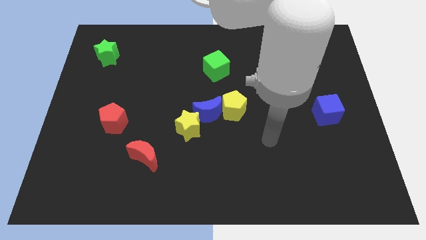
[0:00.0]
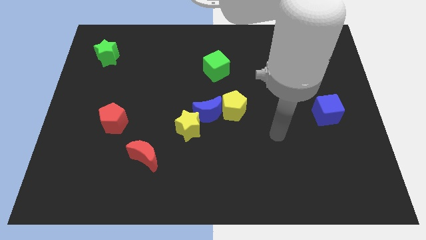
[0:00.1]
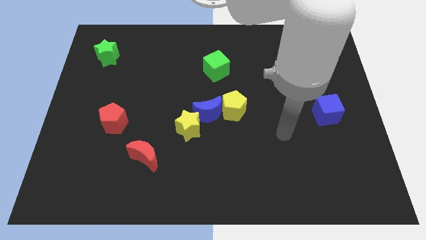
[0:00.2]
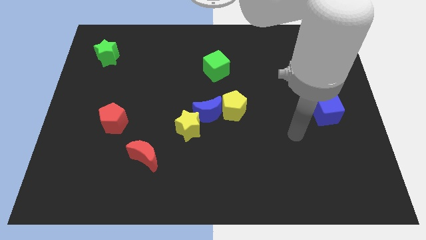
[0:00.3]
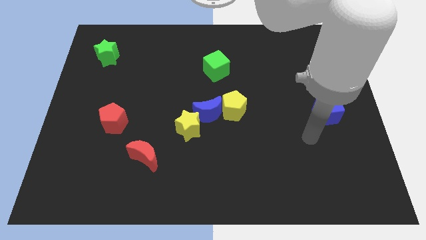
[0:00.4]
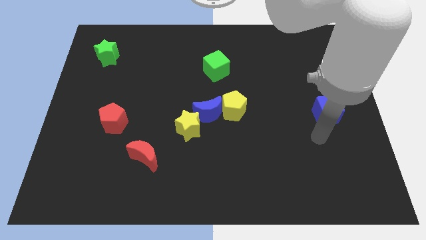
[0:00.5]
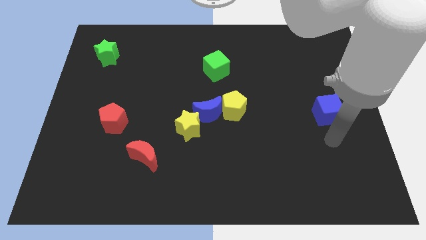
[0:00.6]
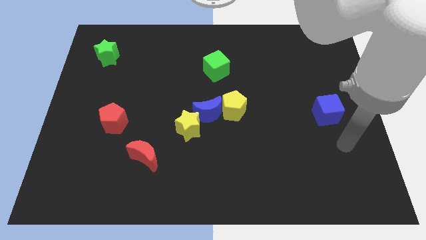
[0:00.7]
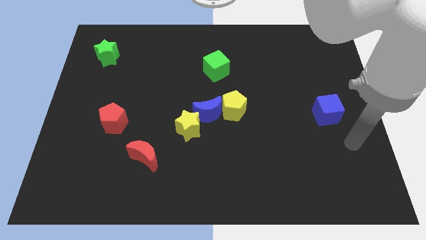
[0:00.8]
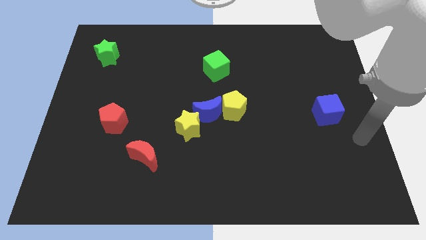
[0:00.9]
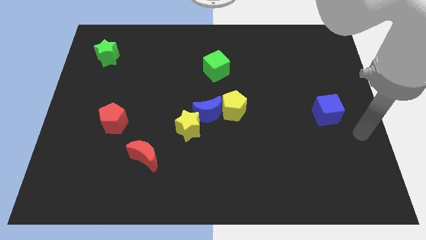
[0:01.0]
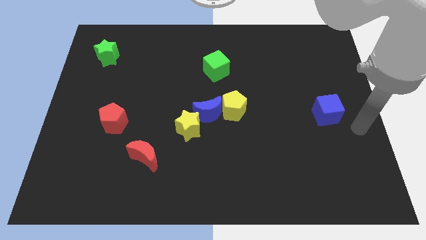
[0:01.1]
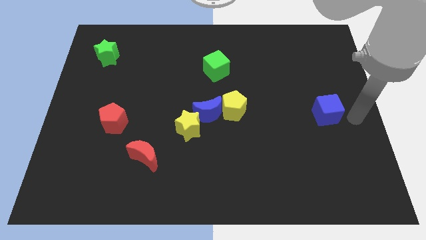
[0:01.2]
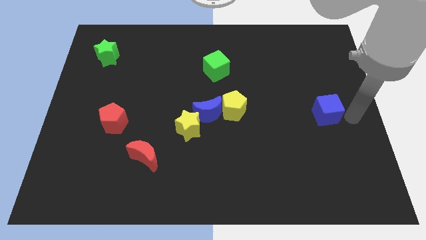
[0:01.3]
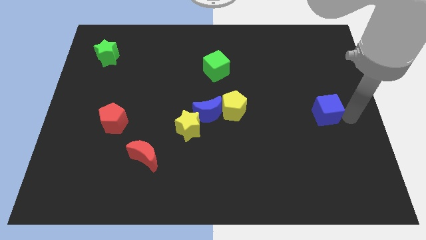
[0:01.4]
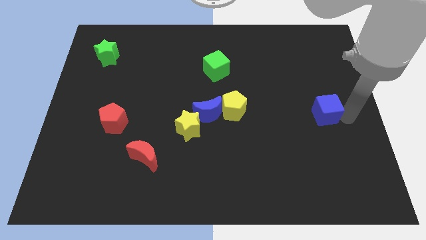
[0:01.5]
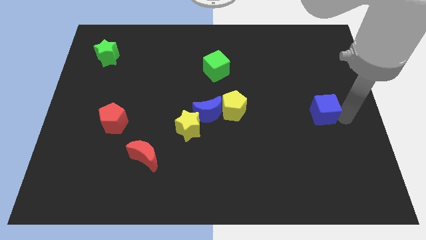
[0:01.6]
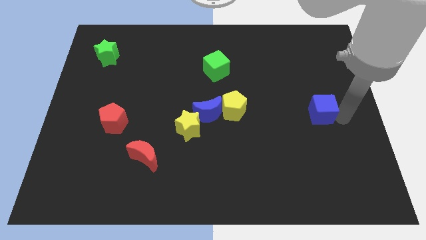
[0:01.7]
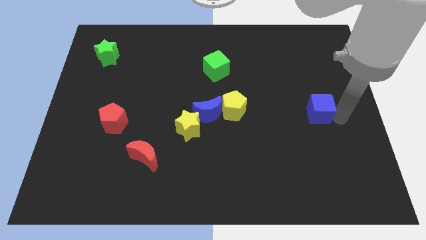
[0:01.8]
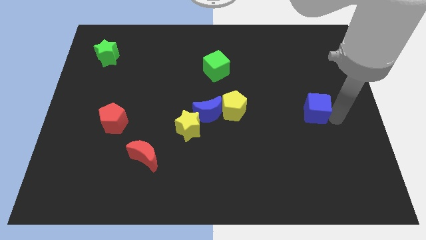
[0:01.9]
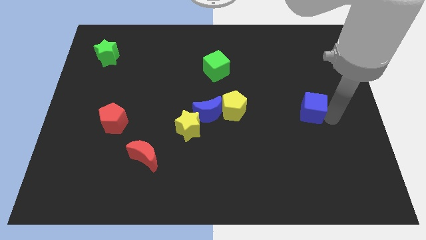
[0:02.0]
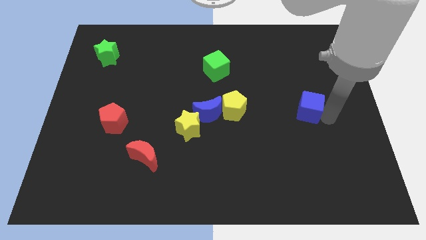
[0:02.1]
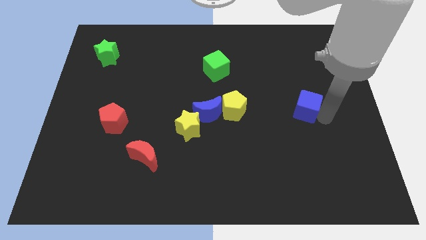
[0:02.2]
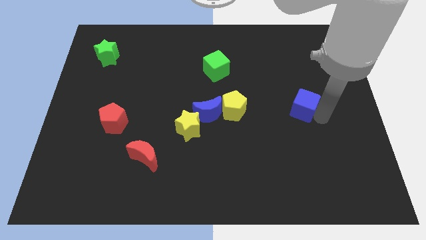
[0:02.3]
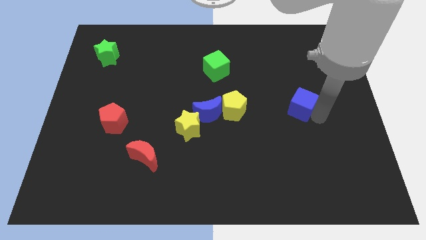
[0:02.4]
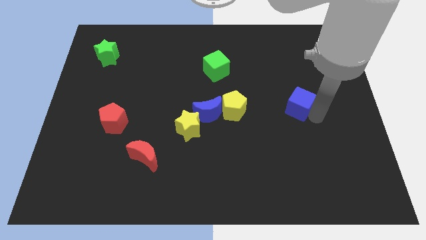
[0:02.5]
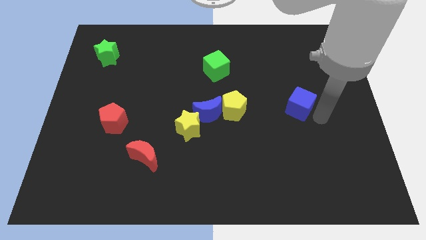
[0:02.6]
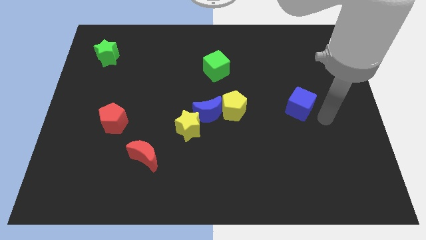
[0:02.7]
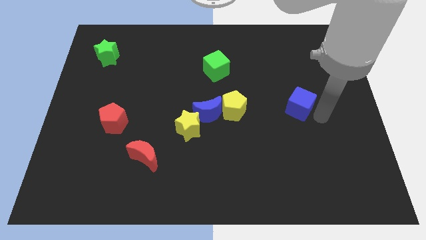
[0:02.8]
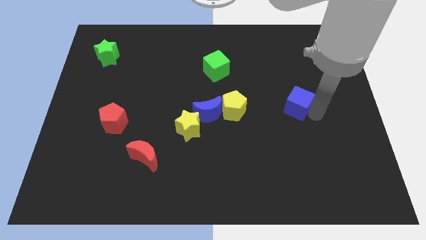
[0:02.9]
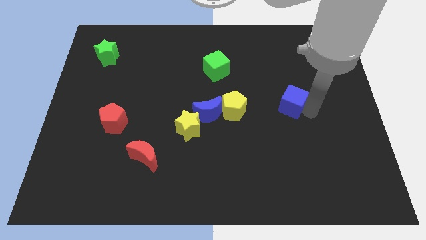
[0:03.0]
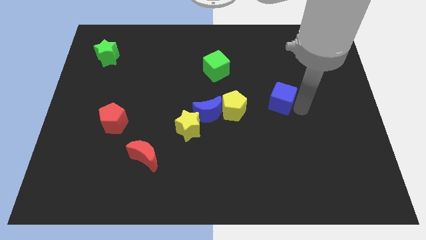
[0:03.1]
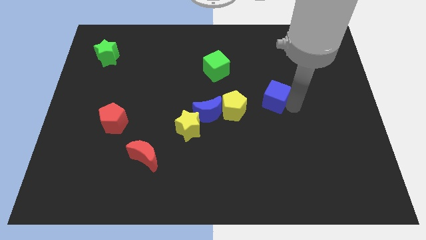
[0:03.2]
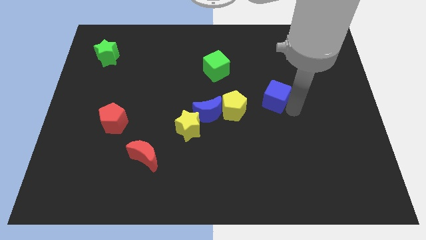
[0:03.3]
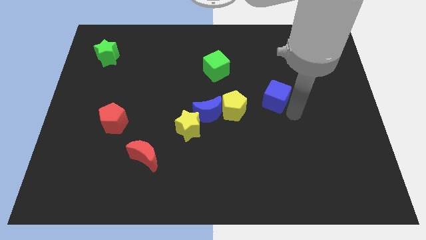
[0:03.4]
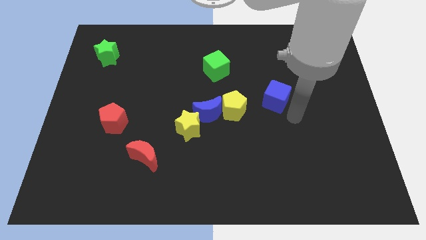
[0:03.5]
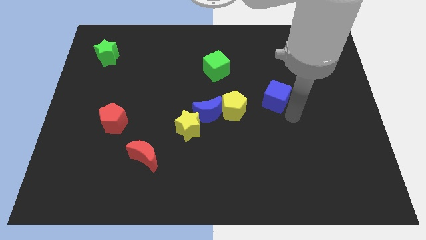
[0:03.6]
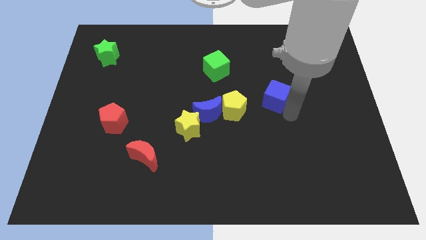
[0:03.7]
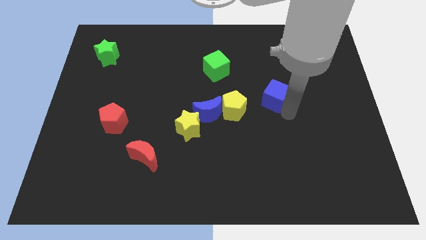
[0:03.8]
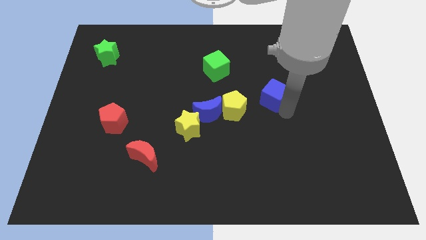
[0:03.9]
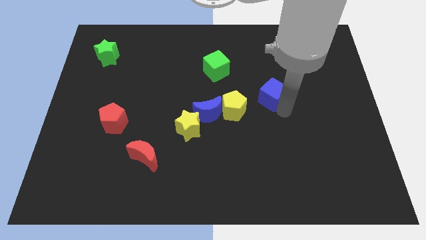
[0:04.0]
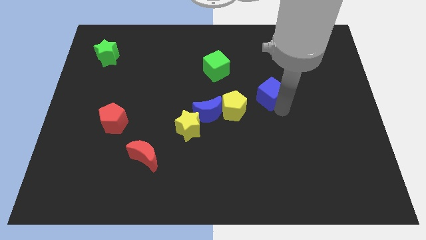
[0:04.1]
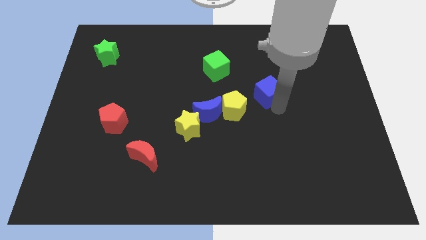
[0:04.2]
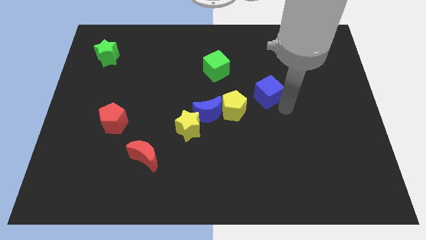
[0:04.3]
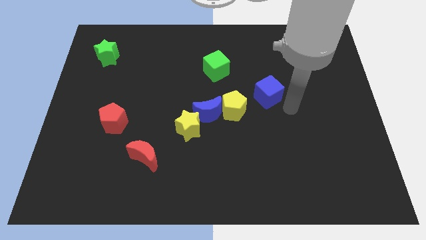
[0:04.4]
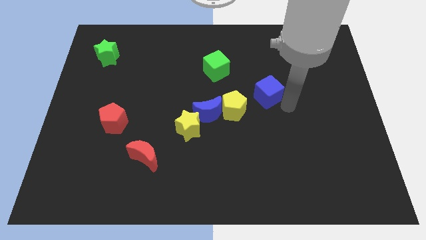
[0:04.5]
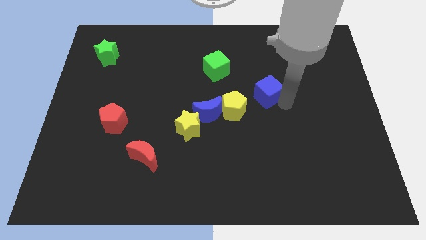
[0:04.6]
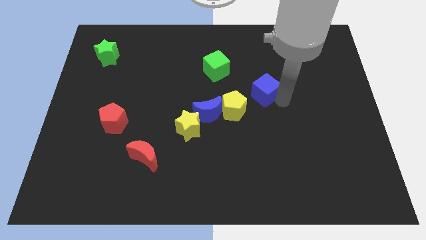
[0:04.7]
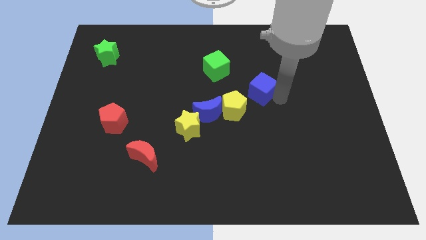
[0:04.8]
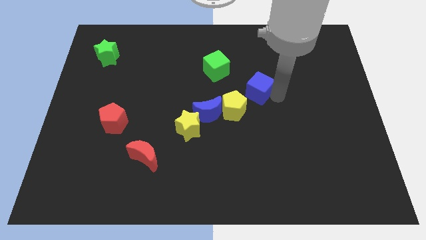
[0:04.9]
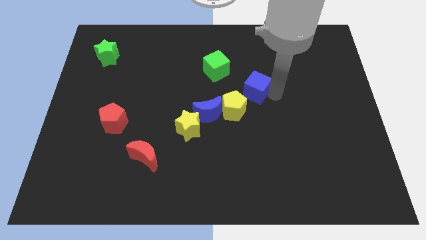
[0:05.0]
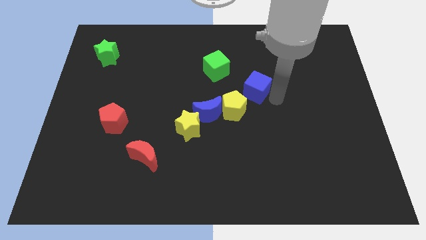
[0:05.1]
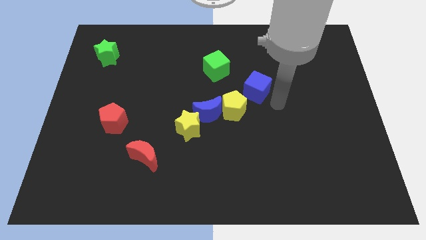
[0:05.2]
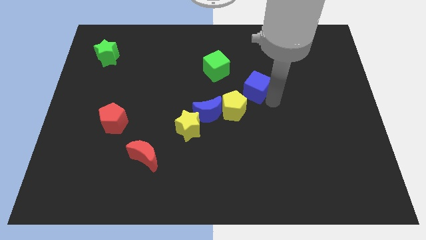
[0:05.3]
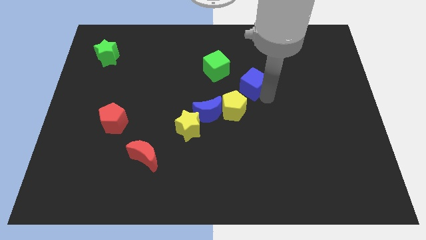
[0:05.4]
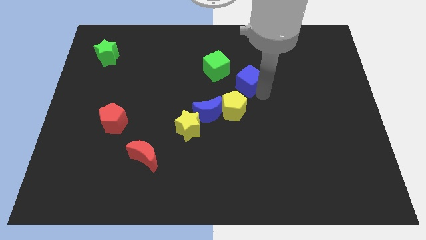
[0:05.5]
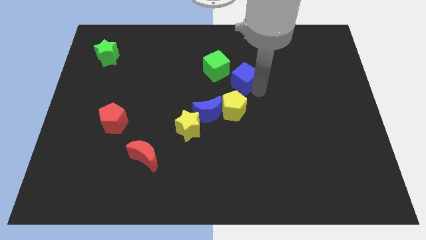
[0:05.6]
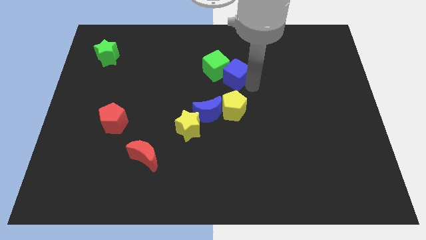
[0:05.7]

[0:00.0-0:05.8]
put the blue cube to the green cube

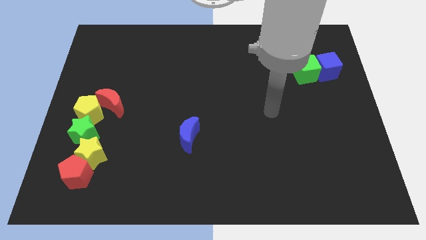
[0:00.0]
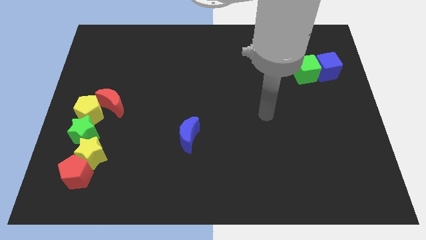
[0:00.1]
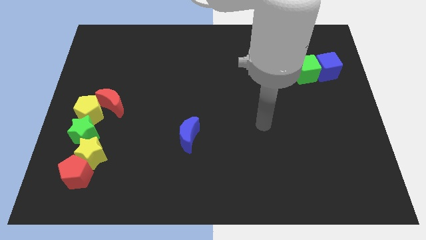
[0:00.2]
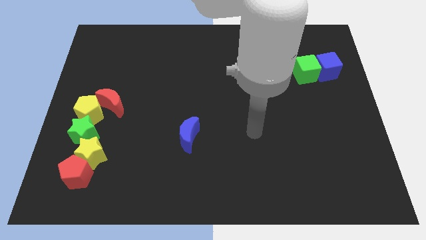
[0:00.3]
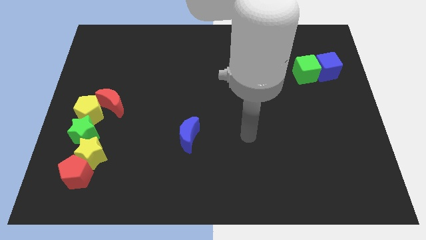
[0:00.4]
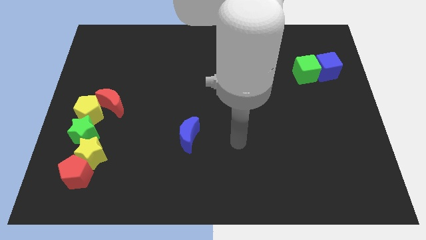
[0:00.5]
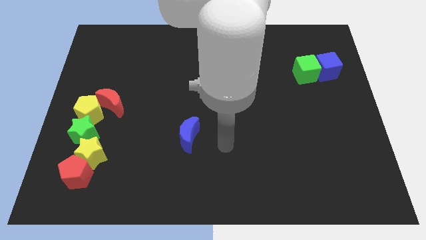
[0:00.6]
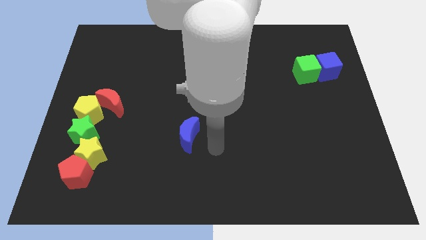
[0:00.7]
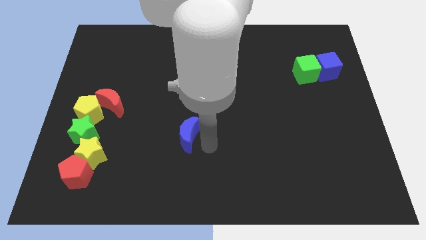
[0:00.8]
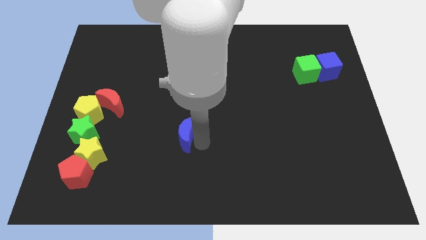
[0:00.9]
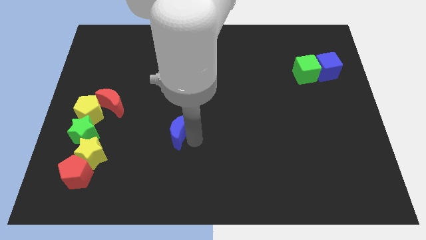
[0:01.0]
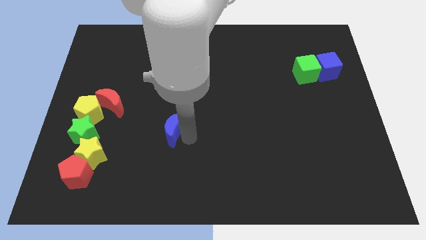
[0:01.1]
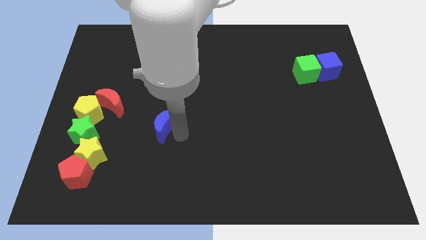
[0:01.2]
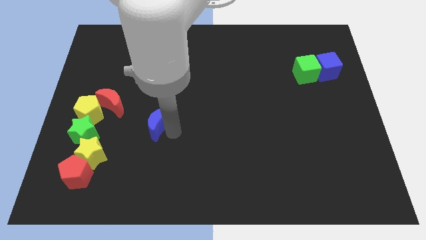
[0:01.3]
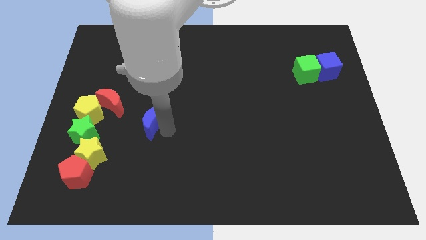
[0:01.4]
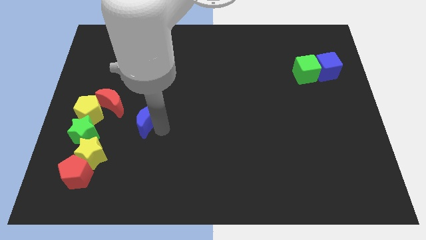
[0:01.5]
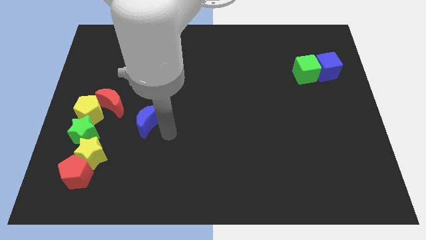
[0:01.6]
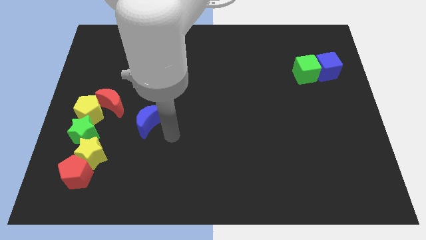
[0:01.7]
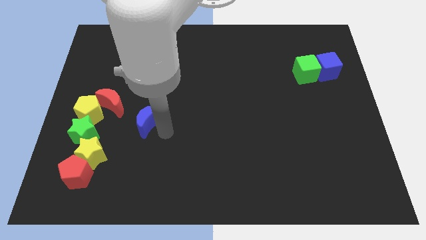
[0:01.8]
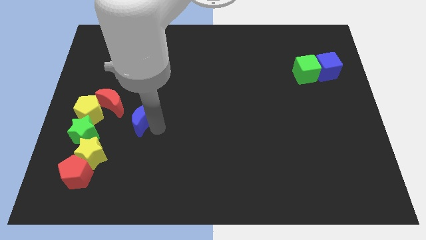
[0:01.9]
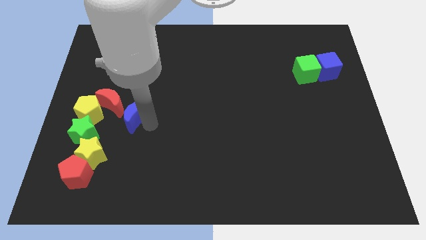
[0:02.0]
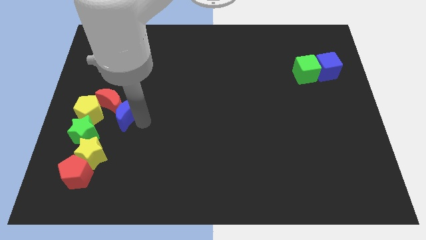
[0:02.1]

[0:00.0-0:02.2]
put the blue moon next to the red moon

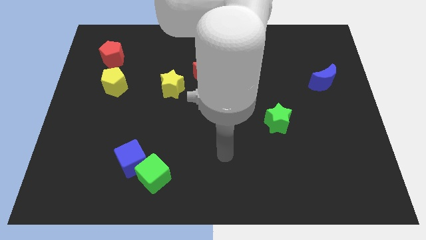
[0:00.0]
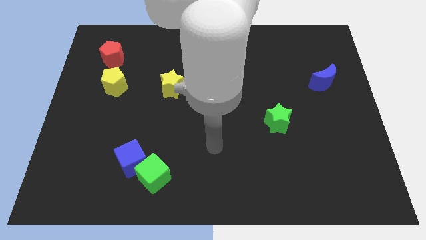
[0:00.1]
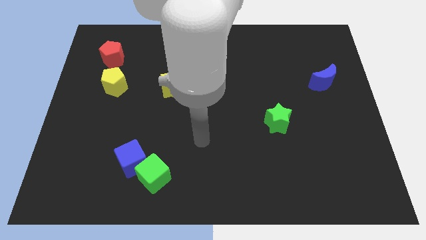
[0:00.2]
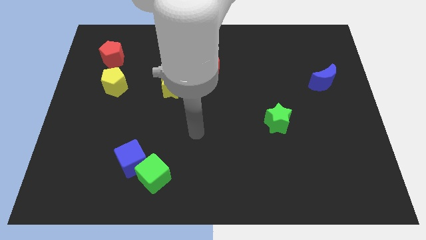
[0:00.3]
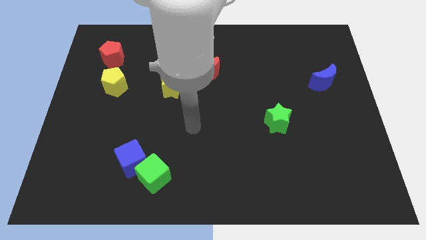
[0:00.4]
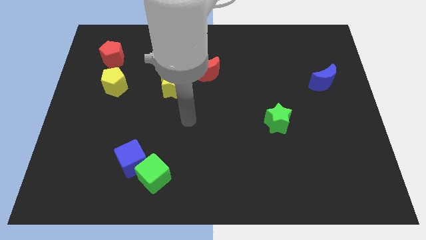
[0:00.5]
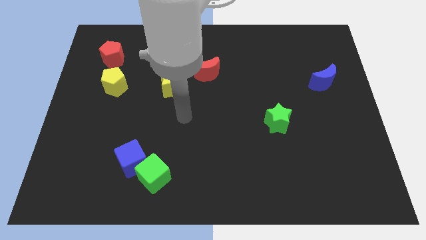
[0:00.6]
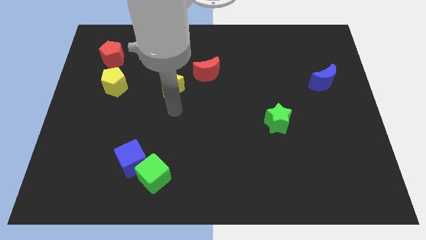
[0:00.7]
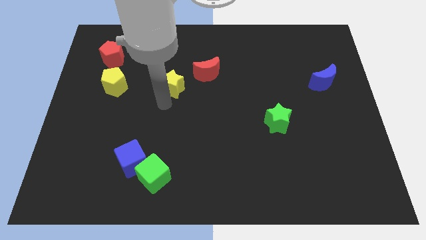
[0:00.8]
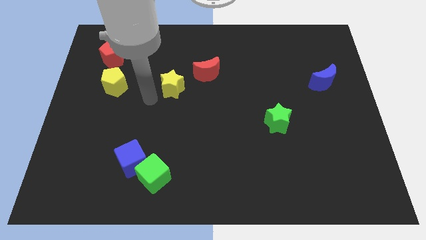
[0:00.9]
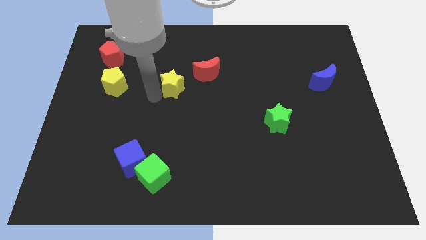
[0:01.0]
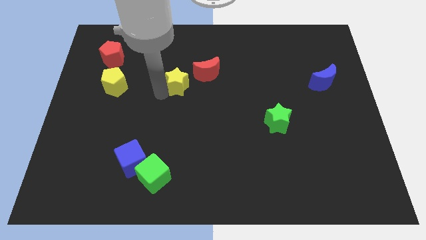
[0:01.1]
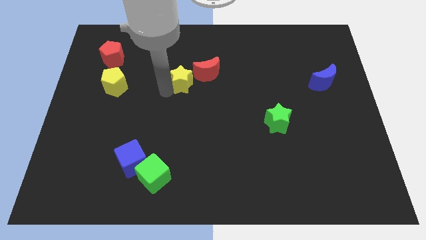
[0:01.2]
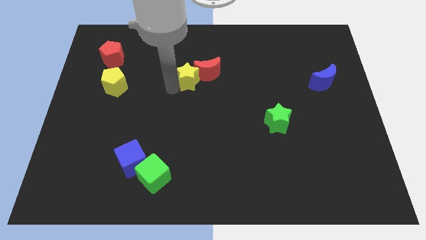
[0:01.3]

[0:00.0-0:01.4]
push the yellow star towards the red moon
